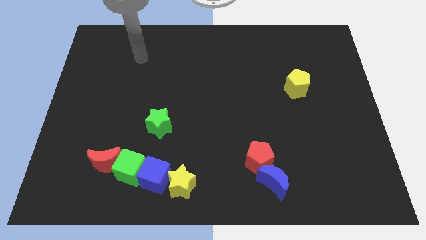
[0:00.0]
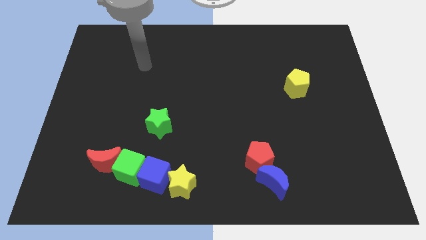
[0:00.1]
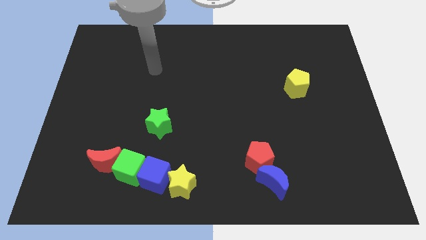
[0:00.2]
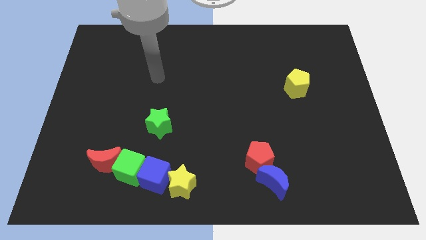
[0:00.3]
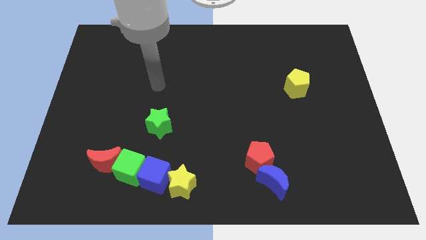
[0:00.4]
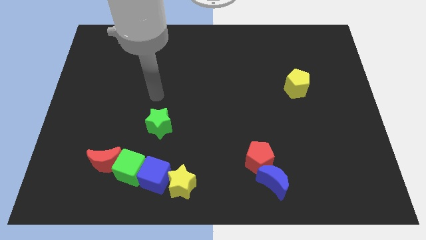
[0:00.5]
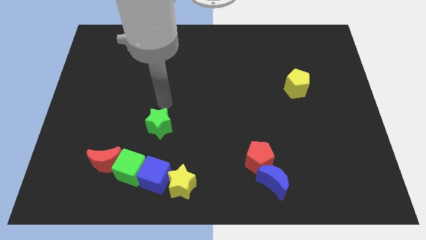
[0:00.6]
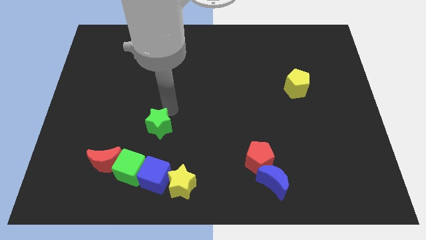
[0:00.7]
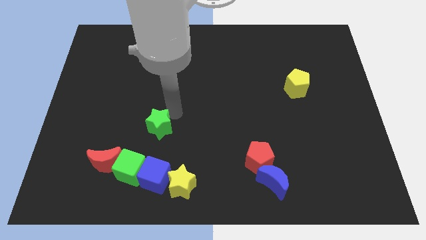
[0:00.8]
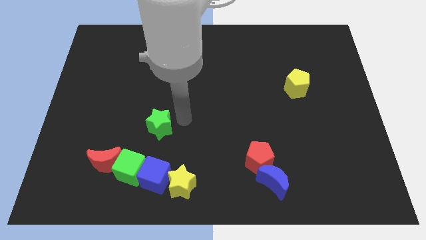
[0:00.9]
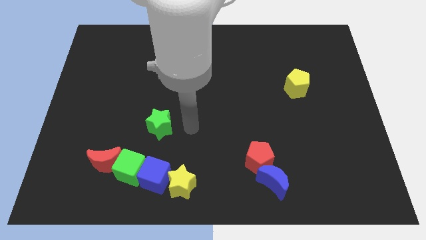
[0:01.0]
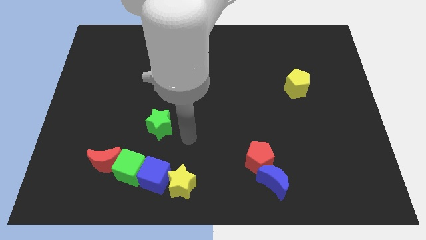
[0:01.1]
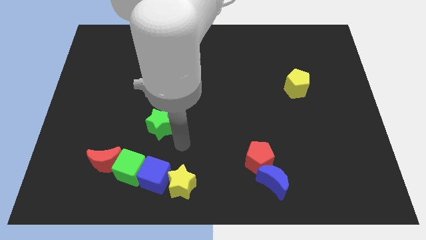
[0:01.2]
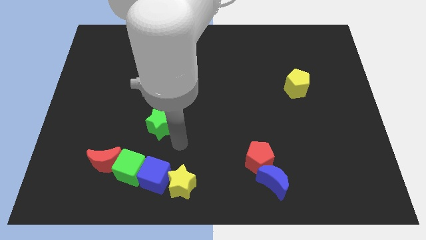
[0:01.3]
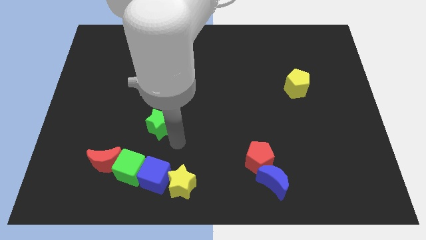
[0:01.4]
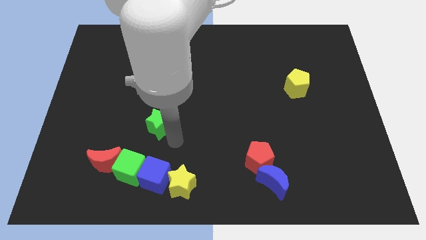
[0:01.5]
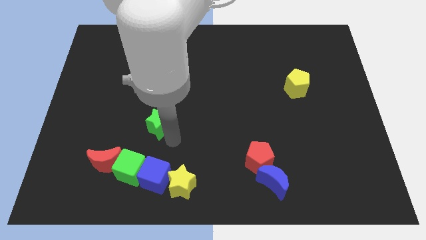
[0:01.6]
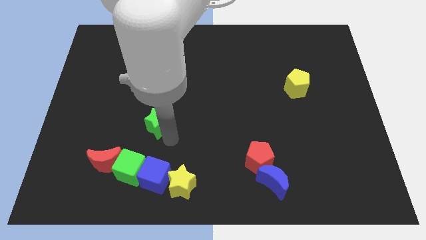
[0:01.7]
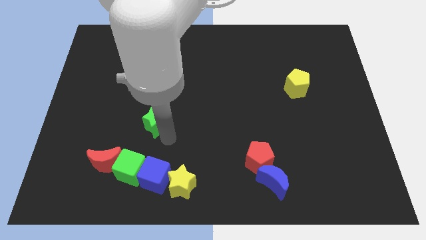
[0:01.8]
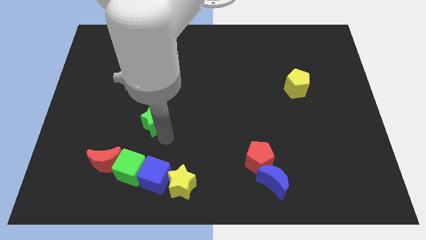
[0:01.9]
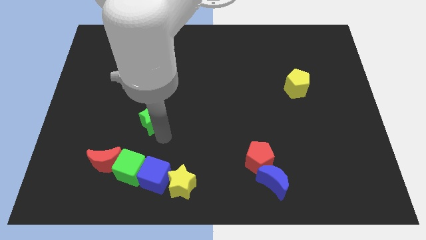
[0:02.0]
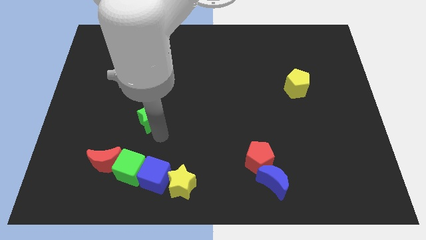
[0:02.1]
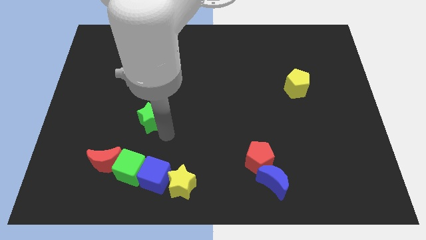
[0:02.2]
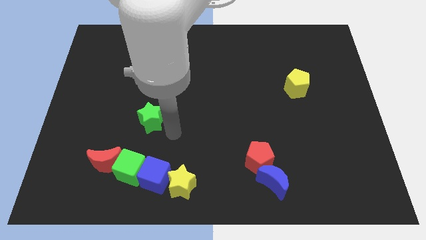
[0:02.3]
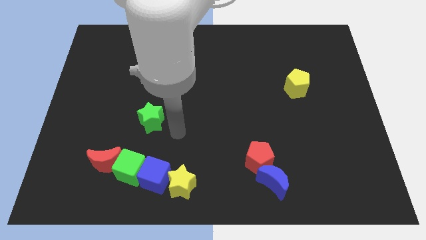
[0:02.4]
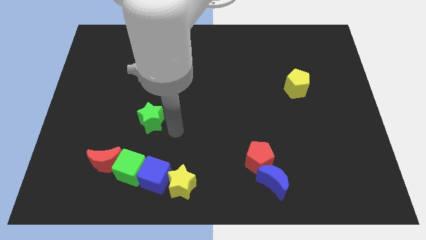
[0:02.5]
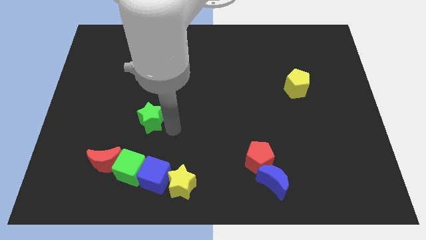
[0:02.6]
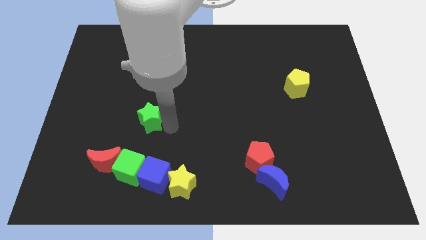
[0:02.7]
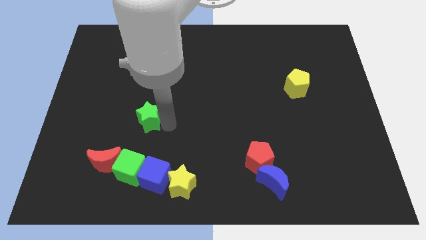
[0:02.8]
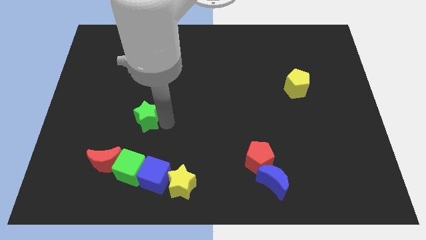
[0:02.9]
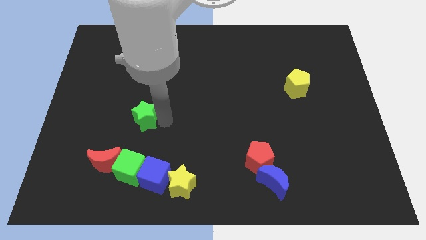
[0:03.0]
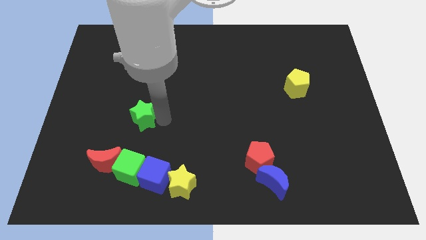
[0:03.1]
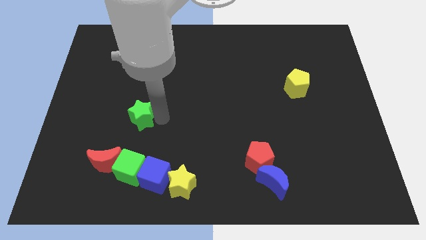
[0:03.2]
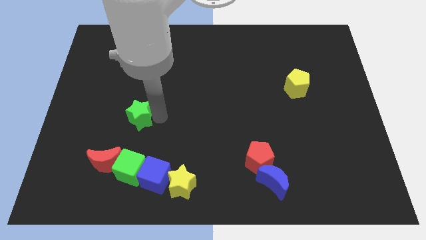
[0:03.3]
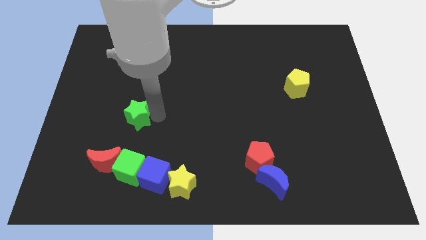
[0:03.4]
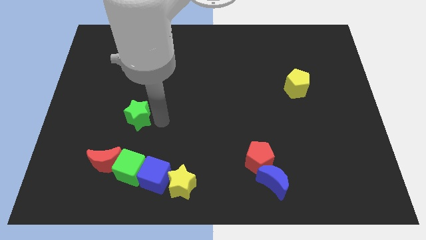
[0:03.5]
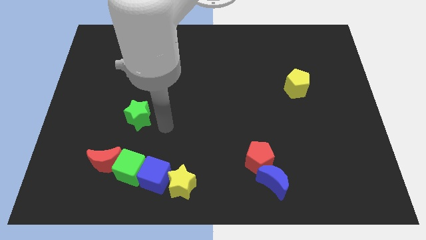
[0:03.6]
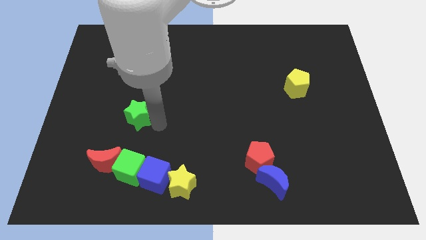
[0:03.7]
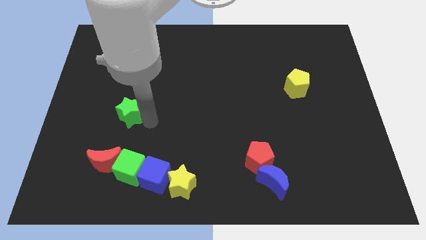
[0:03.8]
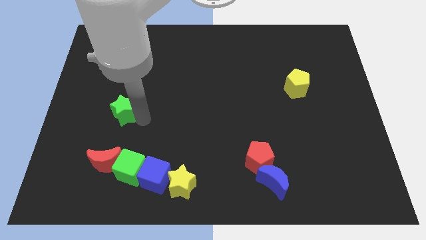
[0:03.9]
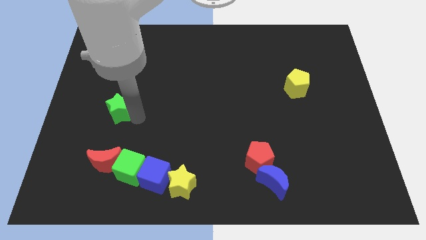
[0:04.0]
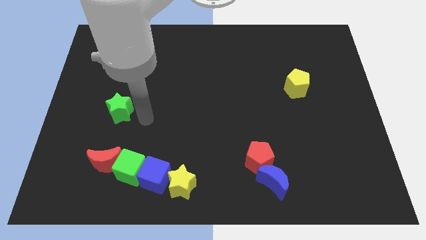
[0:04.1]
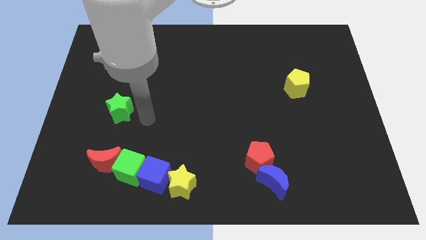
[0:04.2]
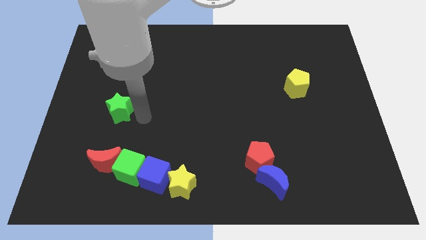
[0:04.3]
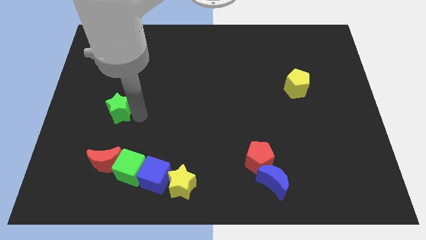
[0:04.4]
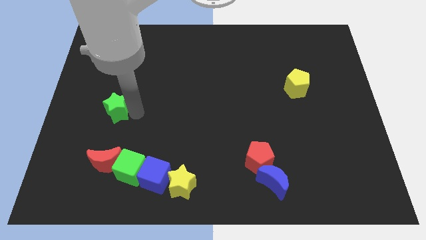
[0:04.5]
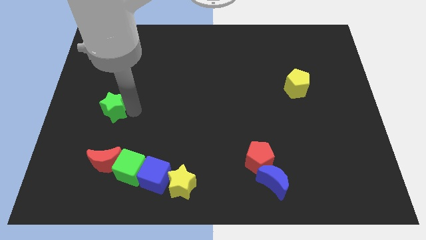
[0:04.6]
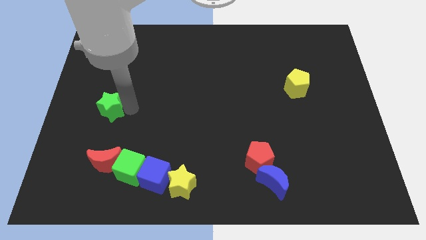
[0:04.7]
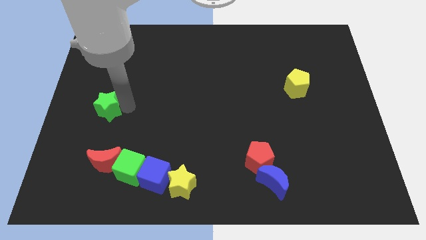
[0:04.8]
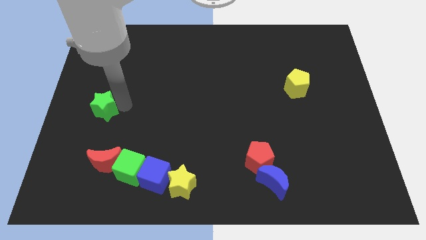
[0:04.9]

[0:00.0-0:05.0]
slide the green star to the left side
